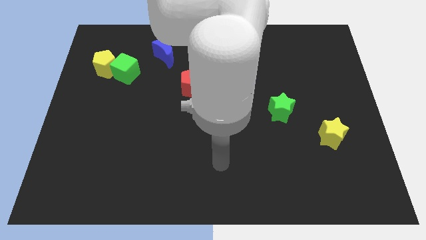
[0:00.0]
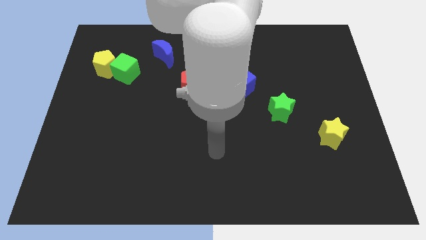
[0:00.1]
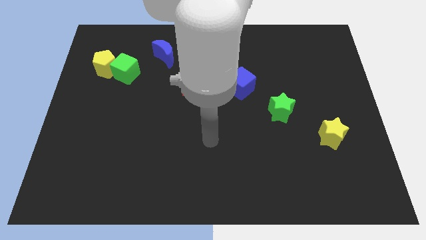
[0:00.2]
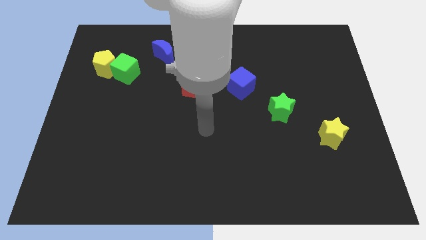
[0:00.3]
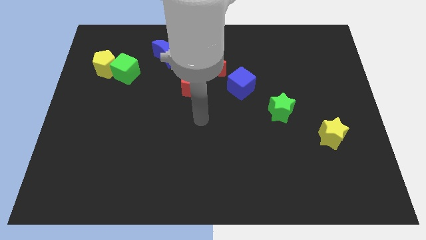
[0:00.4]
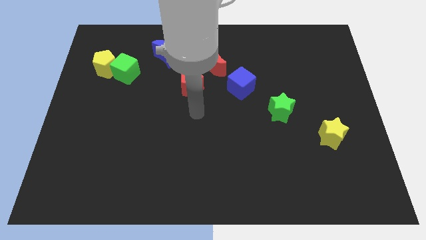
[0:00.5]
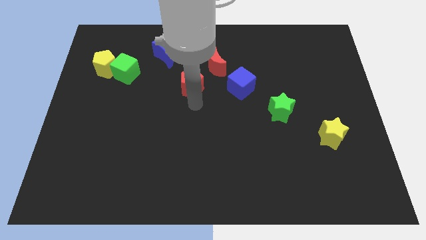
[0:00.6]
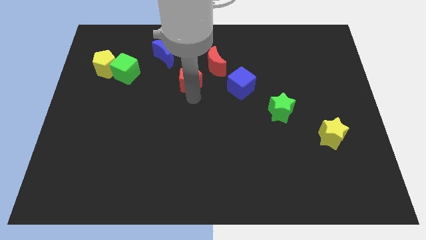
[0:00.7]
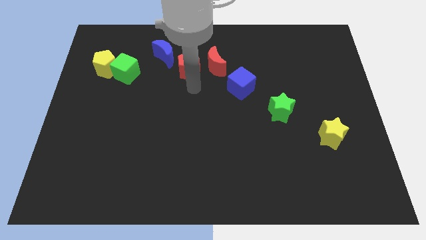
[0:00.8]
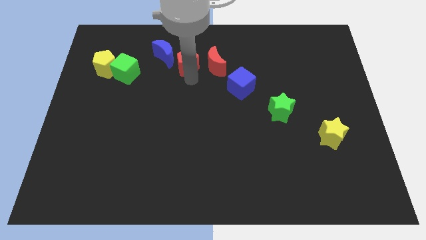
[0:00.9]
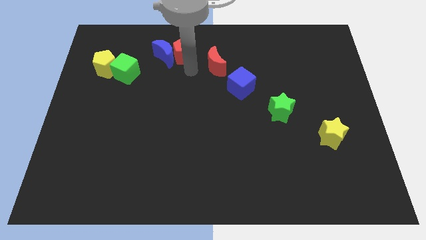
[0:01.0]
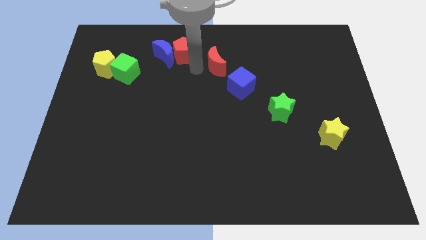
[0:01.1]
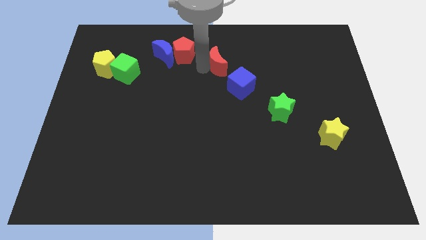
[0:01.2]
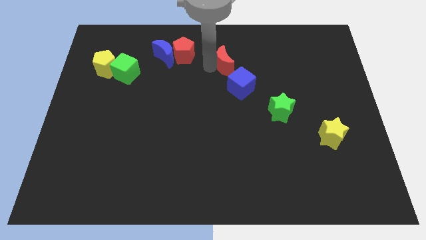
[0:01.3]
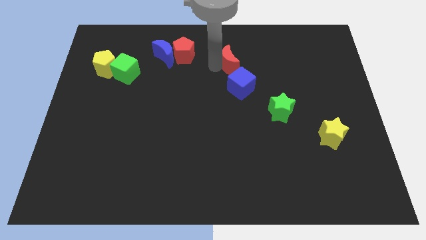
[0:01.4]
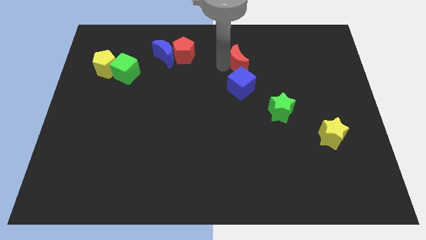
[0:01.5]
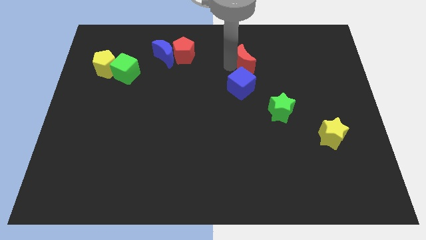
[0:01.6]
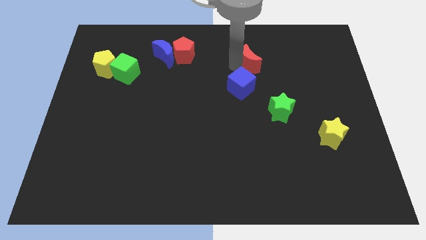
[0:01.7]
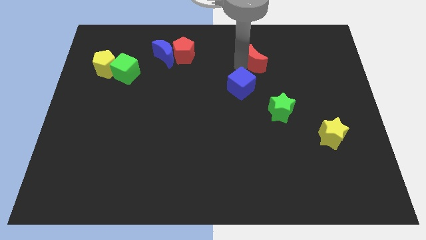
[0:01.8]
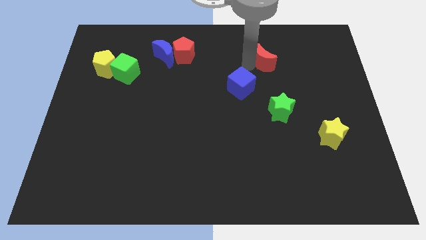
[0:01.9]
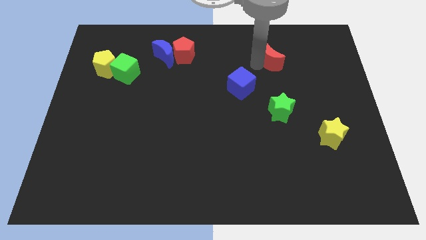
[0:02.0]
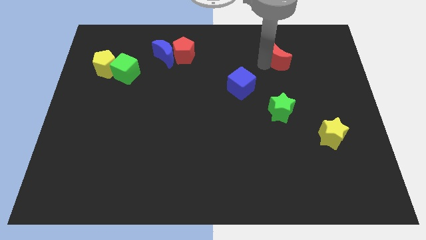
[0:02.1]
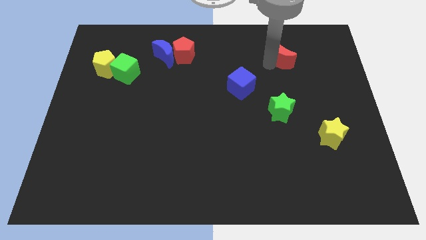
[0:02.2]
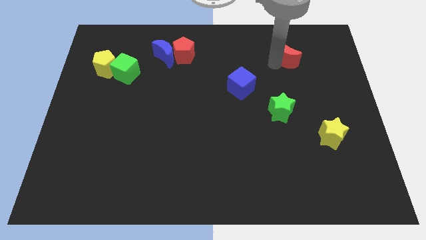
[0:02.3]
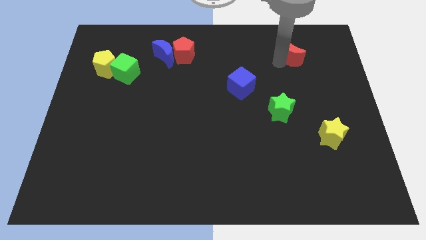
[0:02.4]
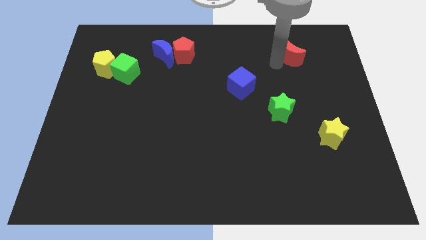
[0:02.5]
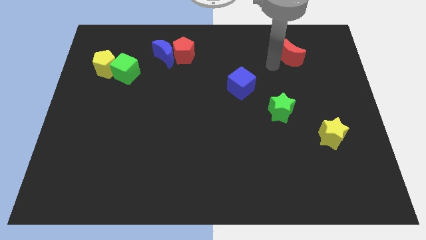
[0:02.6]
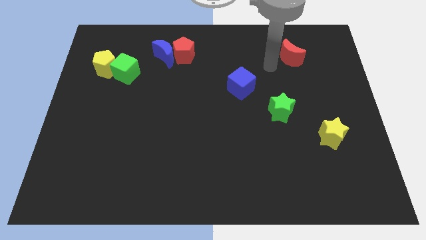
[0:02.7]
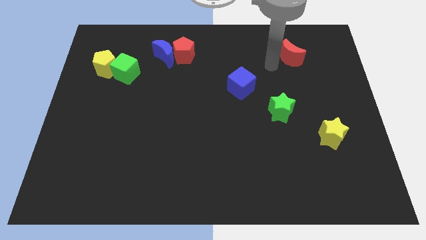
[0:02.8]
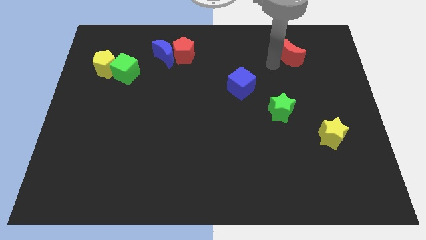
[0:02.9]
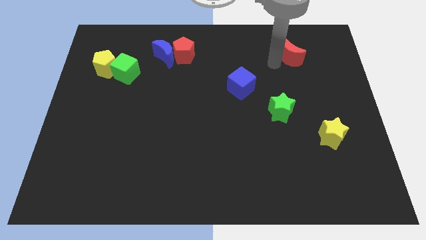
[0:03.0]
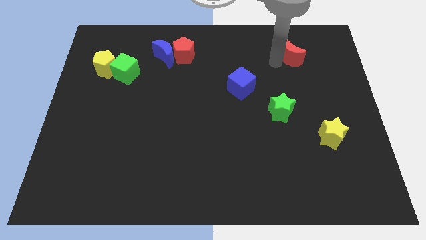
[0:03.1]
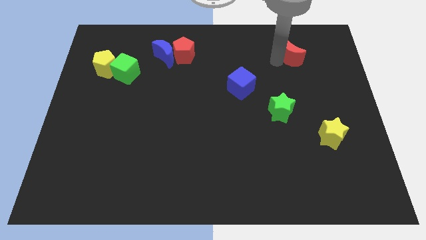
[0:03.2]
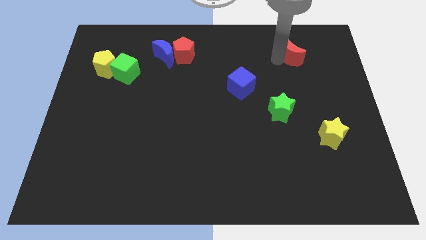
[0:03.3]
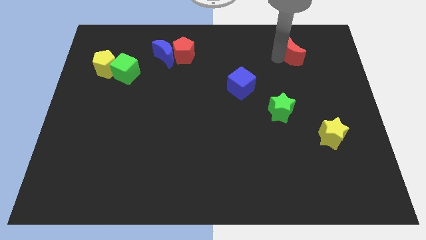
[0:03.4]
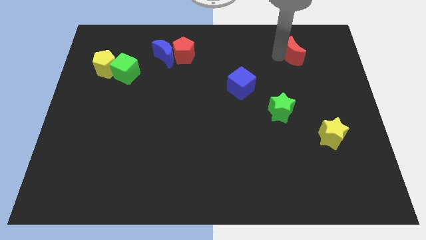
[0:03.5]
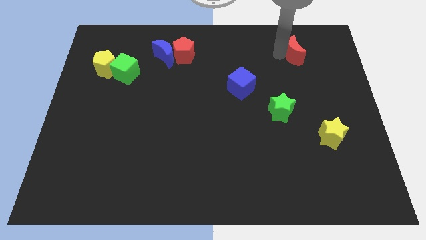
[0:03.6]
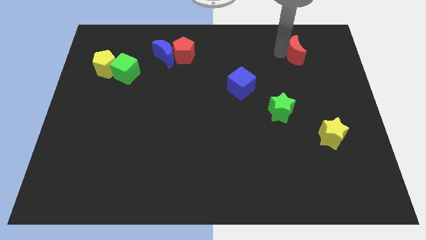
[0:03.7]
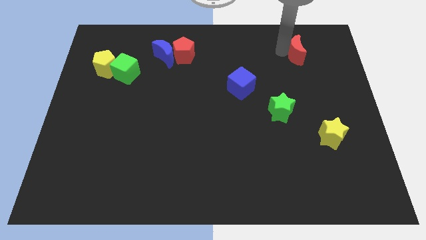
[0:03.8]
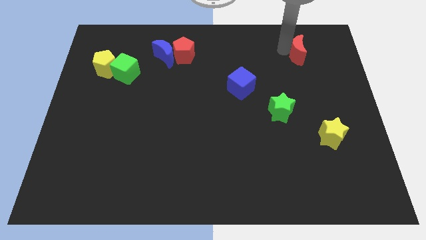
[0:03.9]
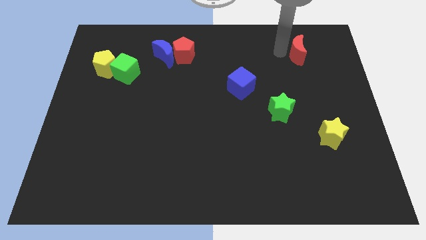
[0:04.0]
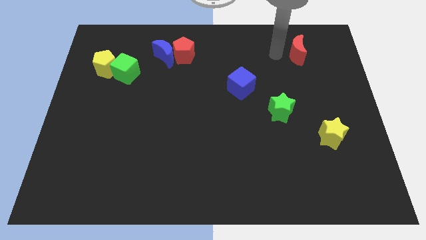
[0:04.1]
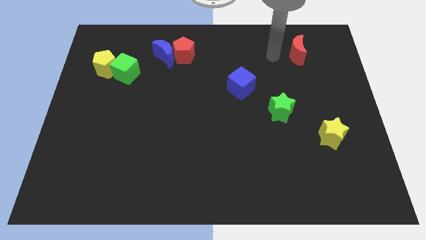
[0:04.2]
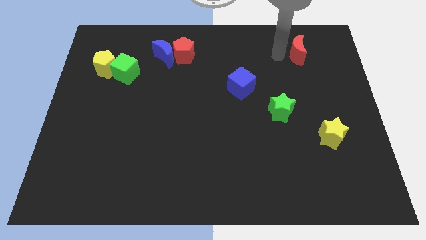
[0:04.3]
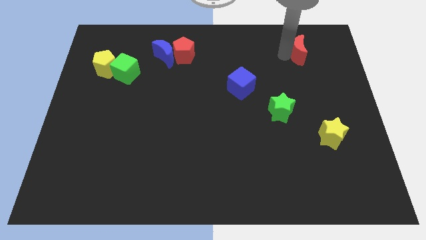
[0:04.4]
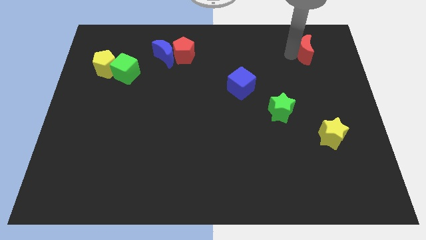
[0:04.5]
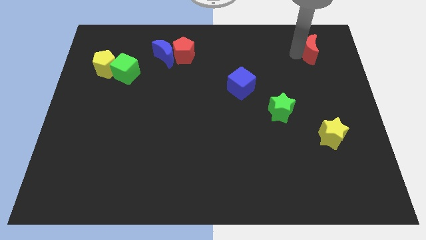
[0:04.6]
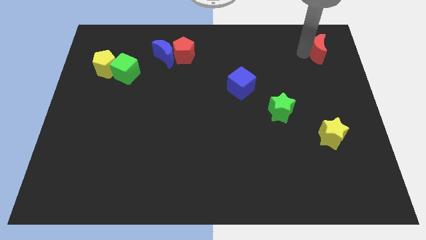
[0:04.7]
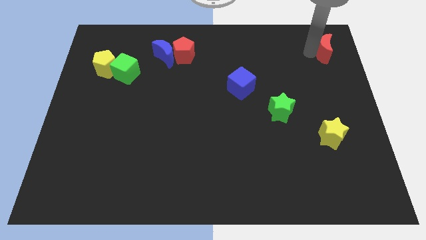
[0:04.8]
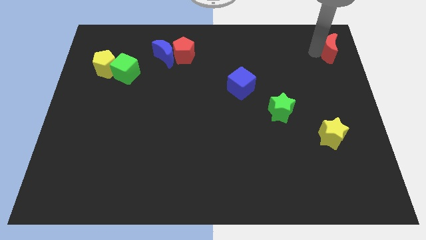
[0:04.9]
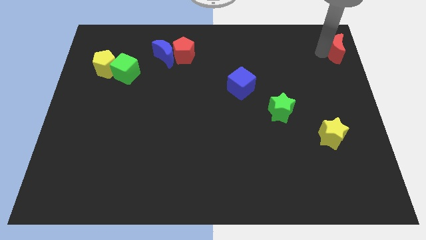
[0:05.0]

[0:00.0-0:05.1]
move the red moon to the top right of the board

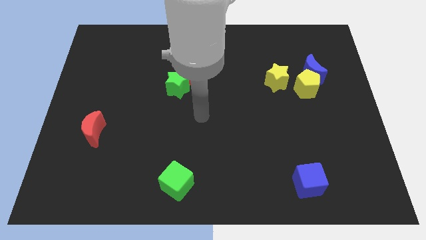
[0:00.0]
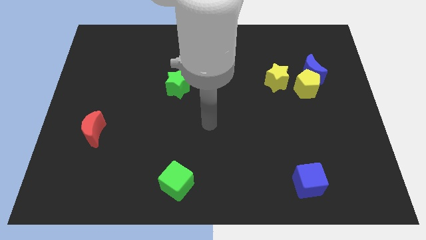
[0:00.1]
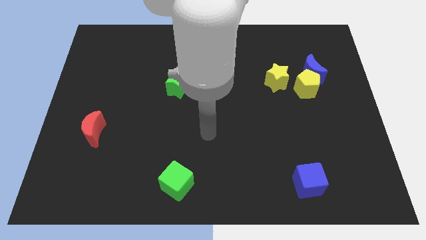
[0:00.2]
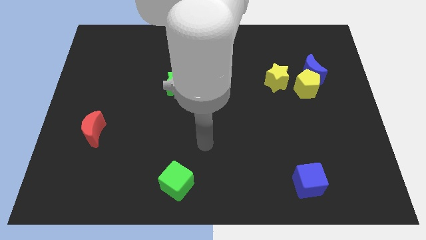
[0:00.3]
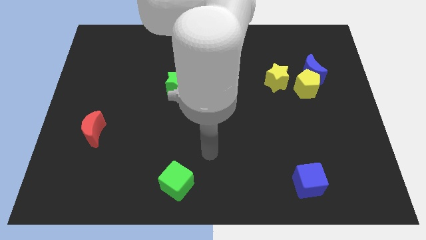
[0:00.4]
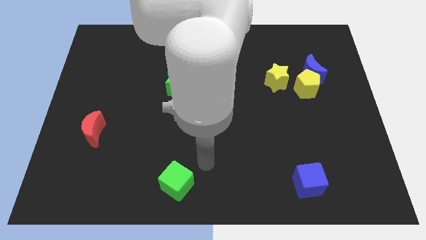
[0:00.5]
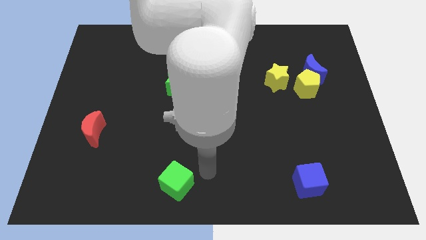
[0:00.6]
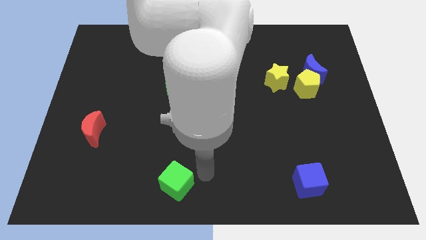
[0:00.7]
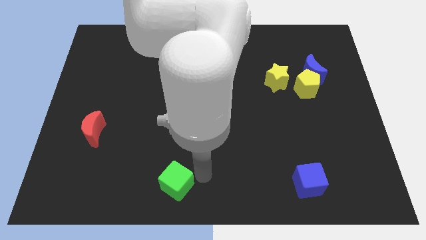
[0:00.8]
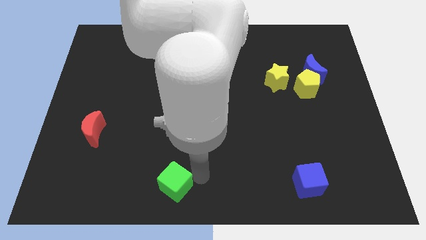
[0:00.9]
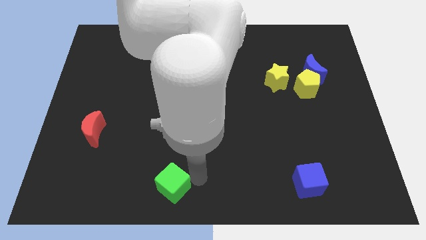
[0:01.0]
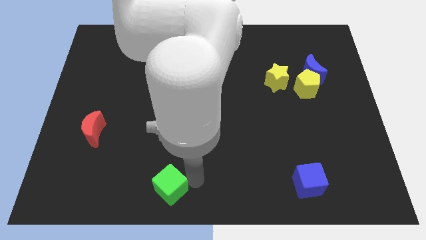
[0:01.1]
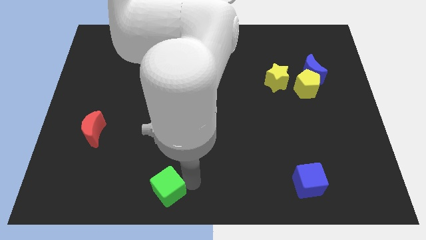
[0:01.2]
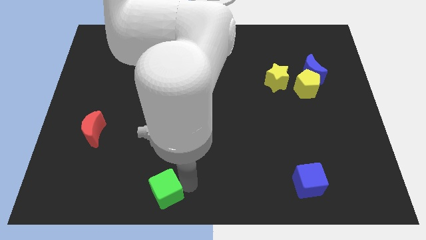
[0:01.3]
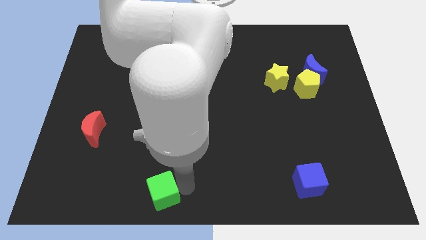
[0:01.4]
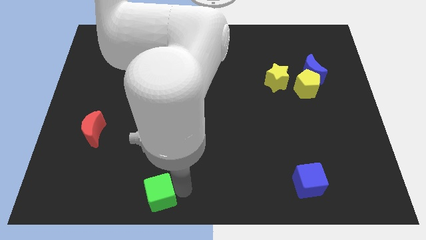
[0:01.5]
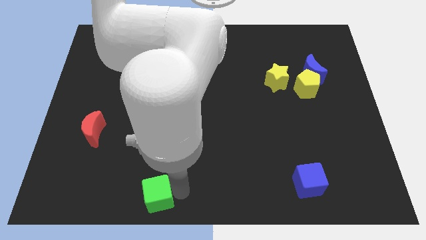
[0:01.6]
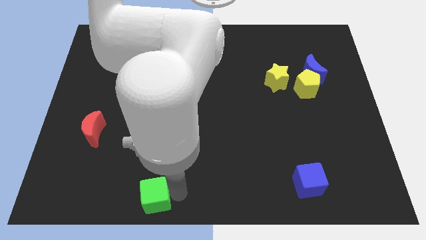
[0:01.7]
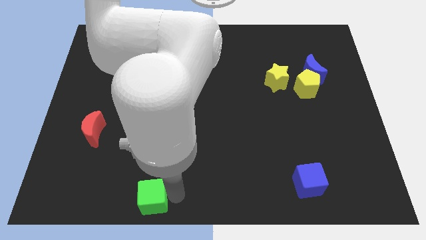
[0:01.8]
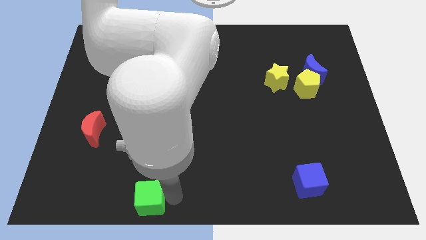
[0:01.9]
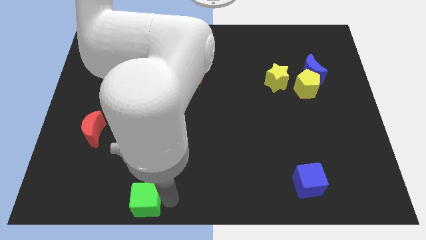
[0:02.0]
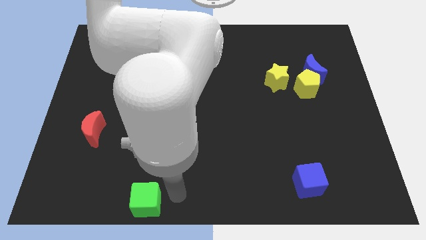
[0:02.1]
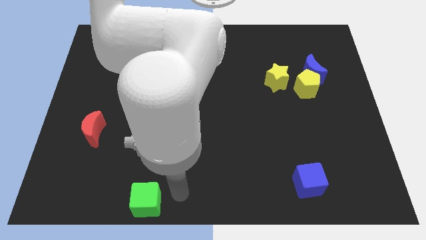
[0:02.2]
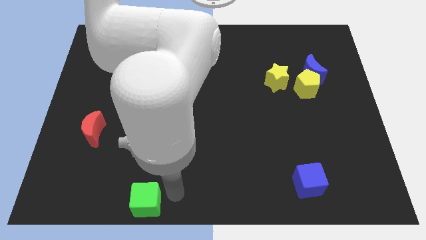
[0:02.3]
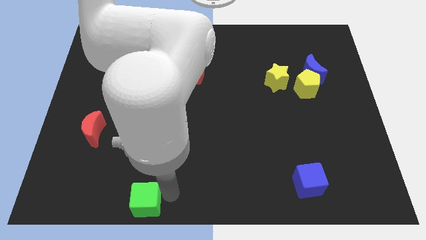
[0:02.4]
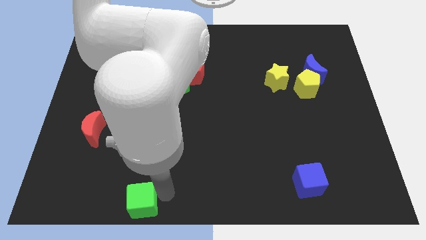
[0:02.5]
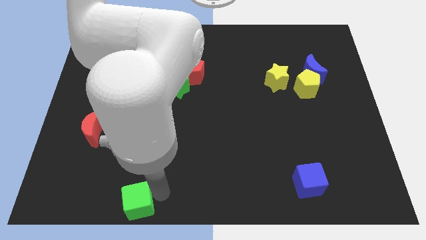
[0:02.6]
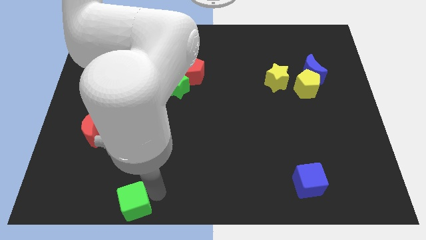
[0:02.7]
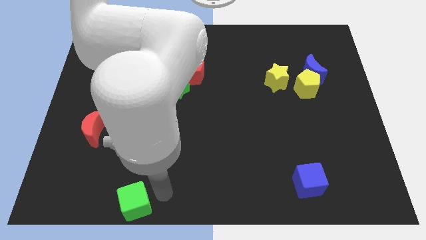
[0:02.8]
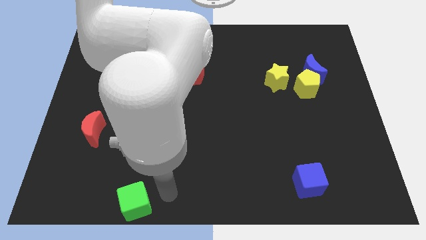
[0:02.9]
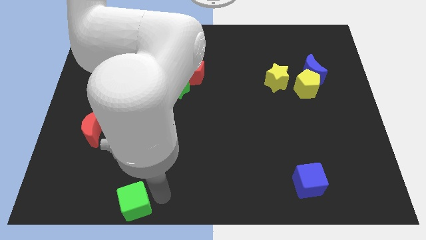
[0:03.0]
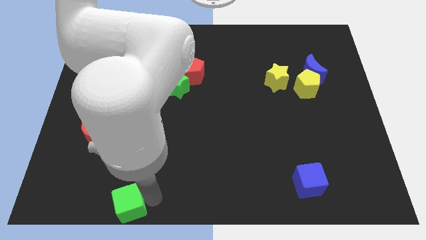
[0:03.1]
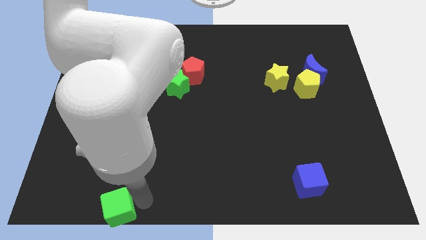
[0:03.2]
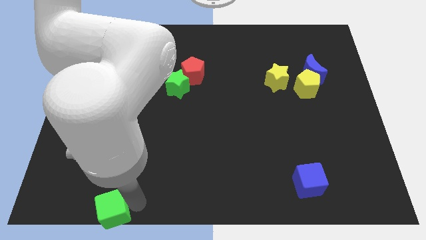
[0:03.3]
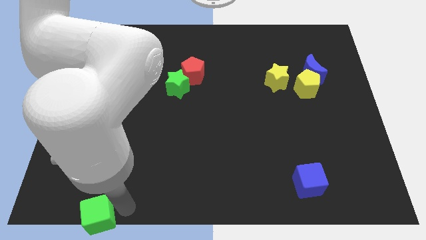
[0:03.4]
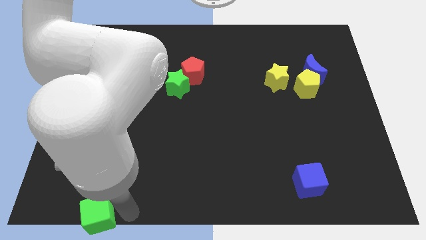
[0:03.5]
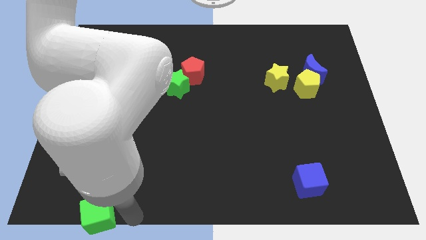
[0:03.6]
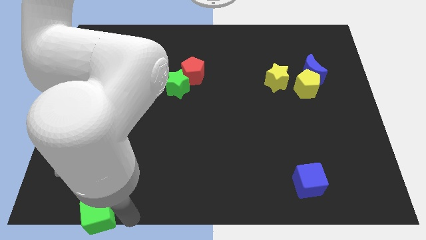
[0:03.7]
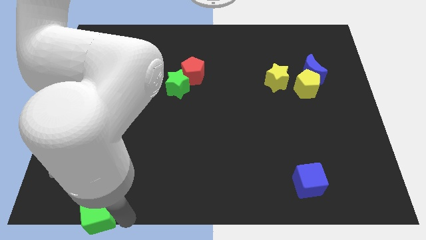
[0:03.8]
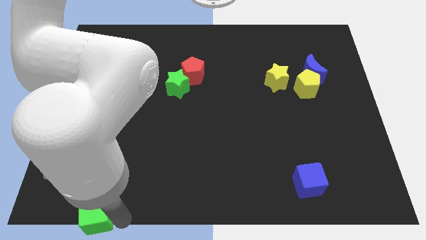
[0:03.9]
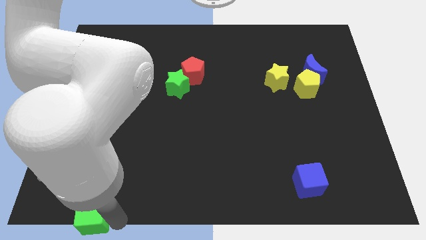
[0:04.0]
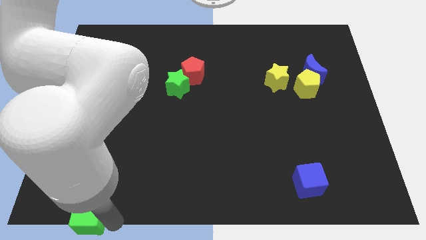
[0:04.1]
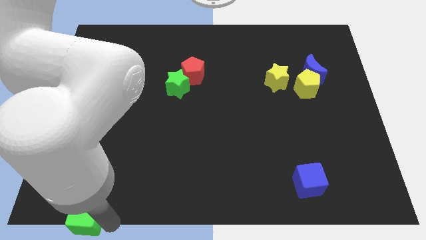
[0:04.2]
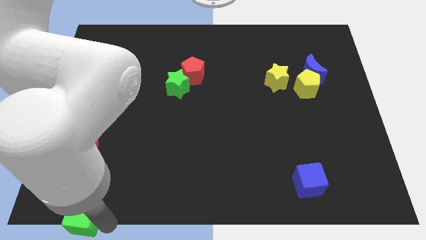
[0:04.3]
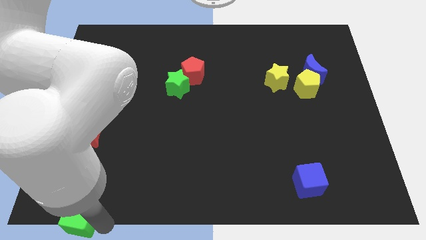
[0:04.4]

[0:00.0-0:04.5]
slide the green cube to the lower left corner
